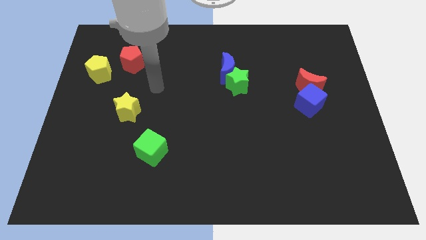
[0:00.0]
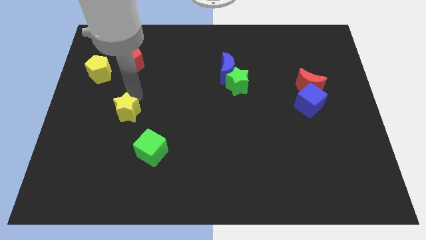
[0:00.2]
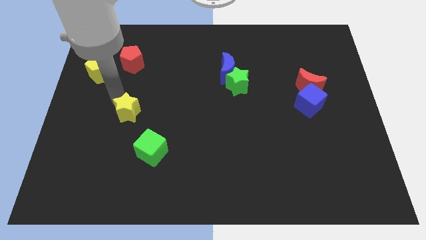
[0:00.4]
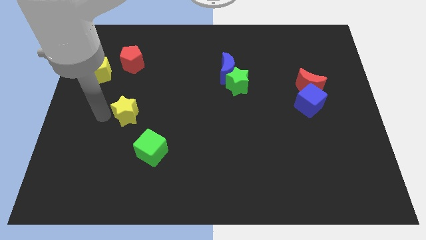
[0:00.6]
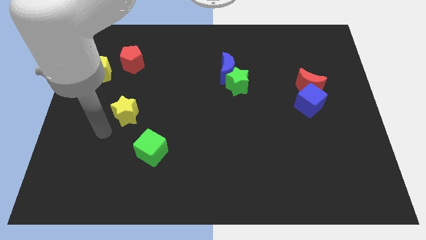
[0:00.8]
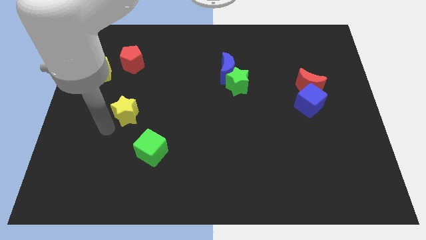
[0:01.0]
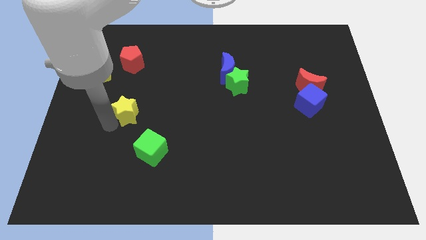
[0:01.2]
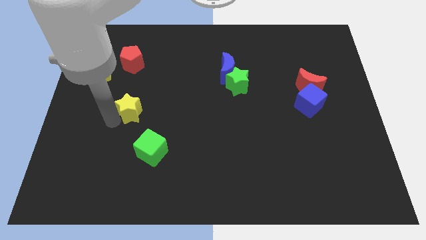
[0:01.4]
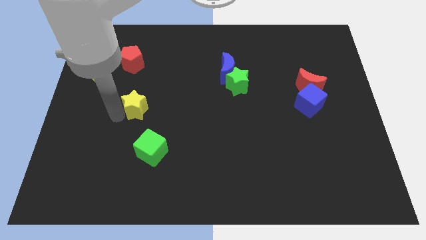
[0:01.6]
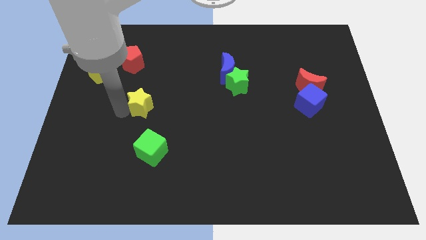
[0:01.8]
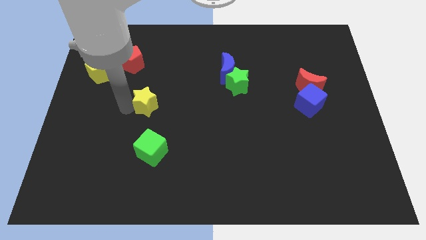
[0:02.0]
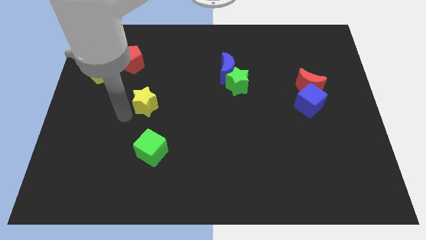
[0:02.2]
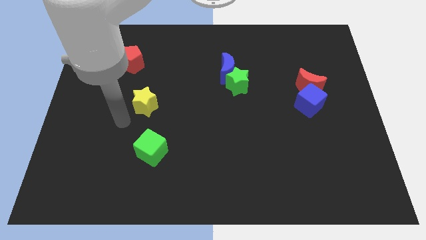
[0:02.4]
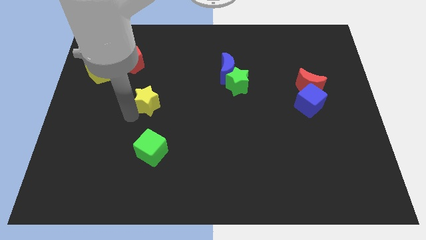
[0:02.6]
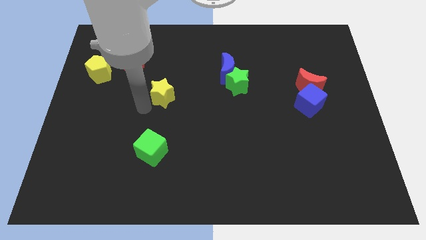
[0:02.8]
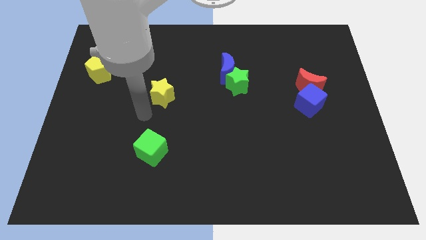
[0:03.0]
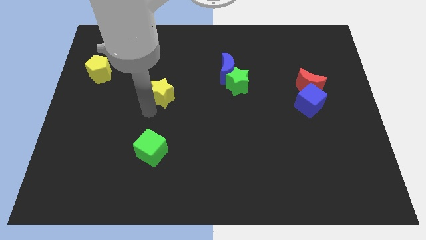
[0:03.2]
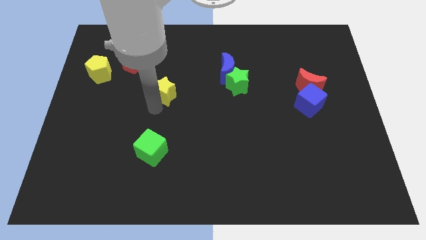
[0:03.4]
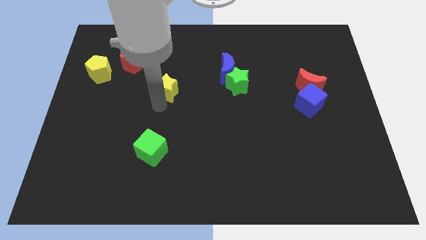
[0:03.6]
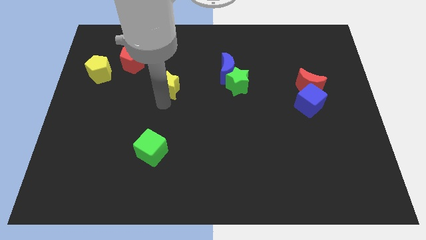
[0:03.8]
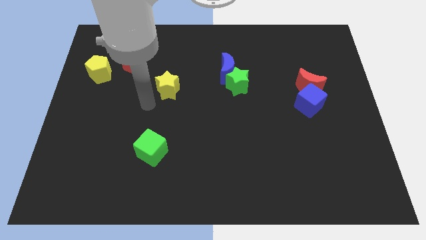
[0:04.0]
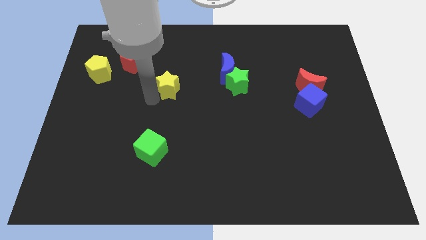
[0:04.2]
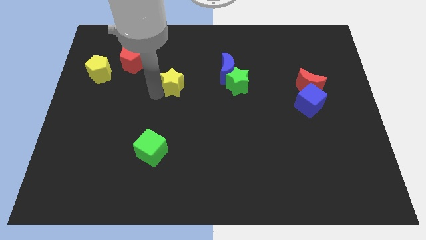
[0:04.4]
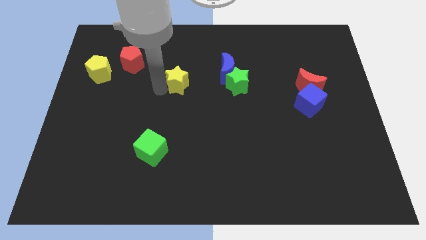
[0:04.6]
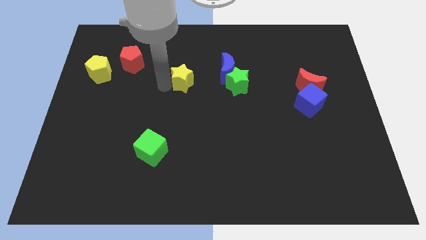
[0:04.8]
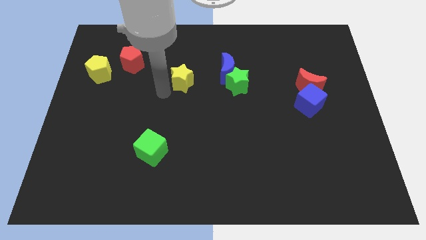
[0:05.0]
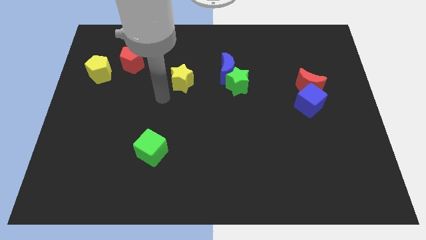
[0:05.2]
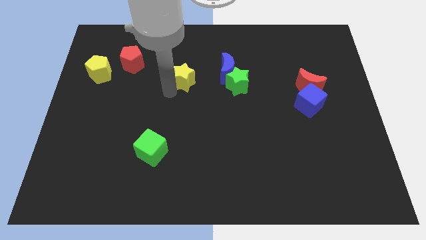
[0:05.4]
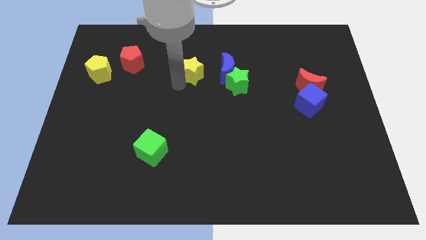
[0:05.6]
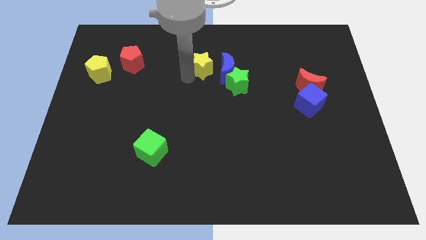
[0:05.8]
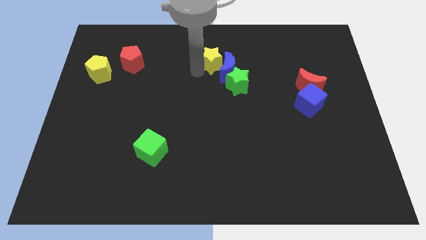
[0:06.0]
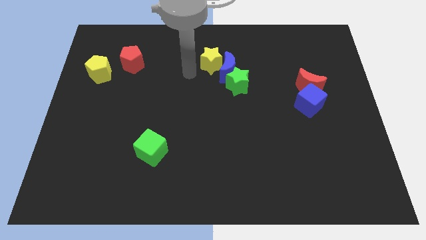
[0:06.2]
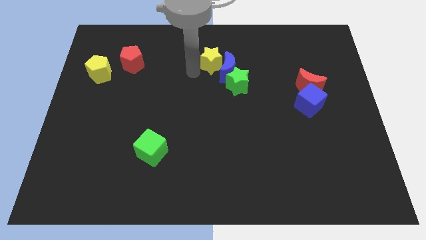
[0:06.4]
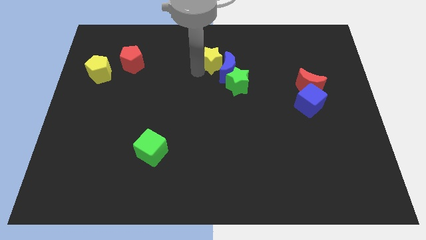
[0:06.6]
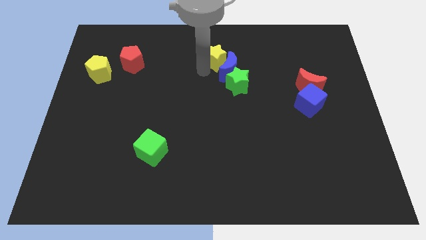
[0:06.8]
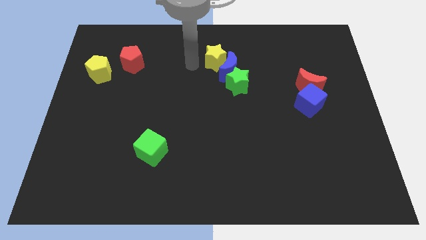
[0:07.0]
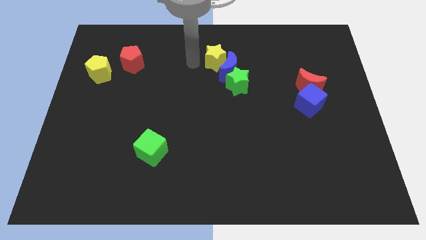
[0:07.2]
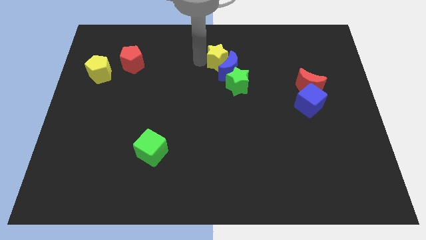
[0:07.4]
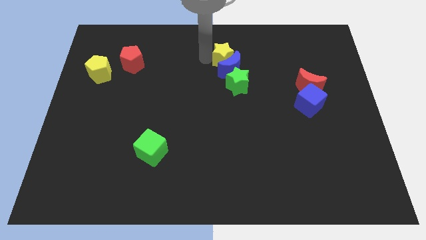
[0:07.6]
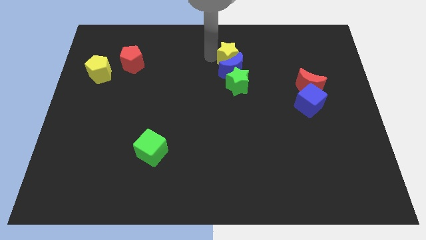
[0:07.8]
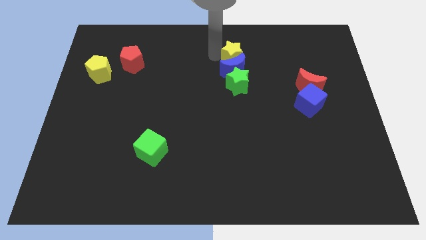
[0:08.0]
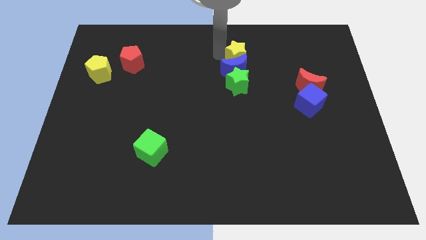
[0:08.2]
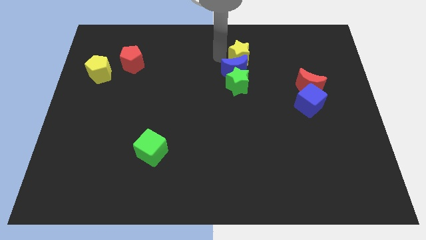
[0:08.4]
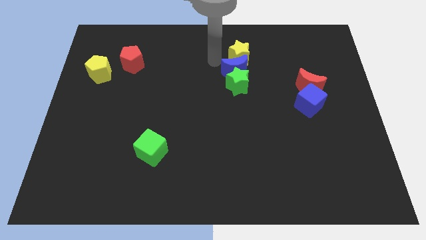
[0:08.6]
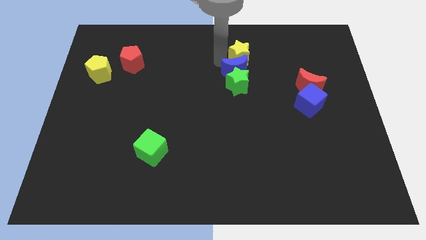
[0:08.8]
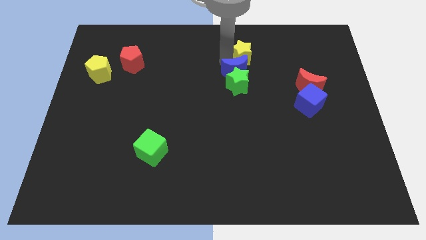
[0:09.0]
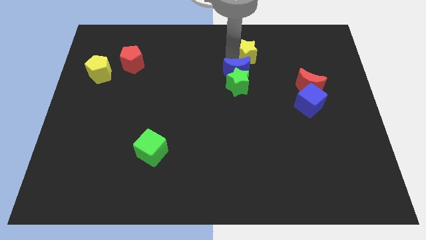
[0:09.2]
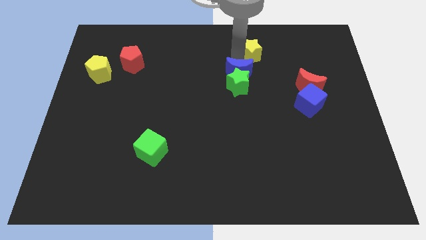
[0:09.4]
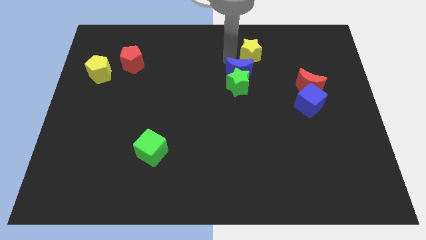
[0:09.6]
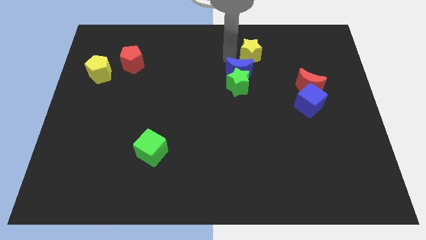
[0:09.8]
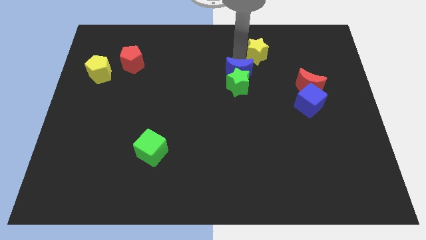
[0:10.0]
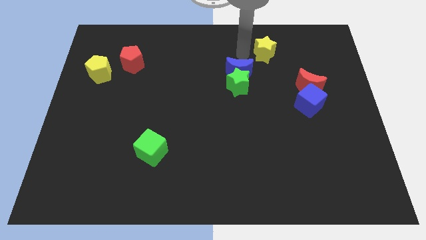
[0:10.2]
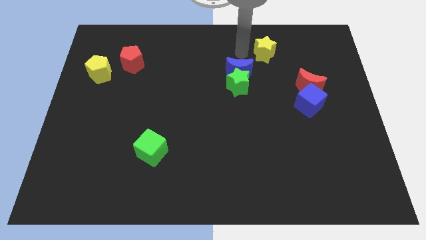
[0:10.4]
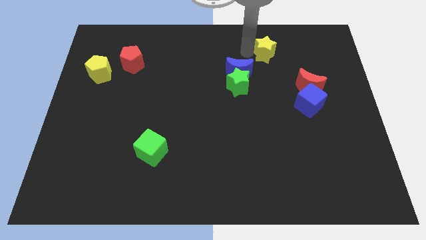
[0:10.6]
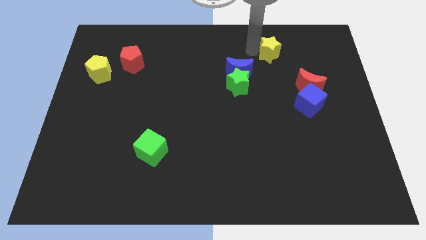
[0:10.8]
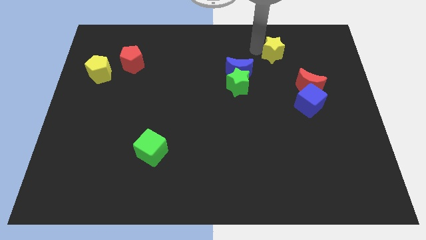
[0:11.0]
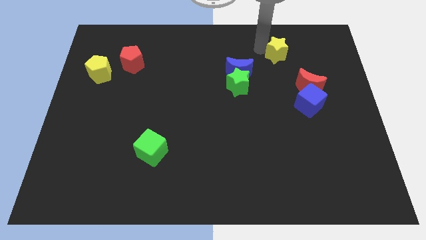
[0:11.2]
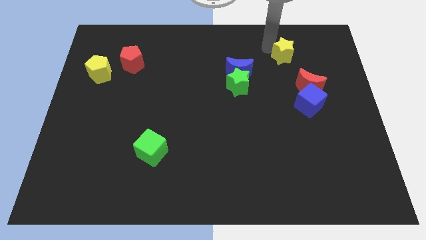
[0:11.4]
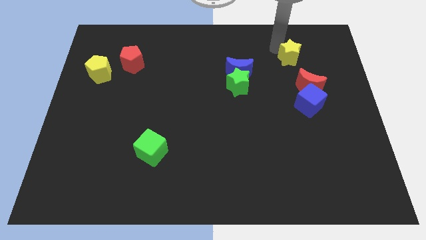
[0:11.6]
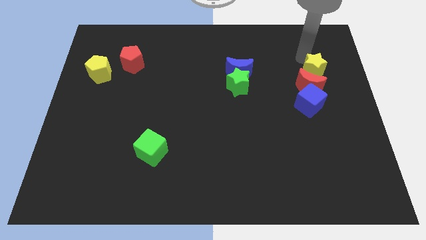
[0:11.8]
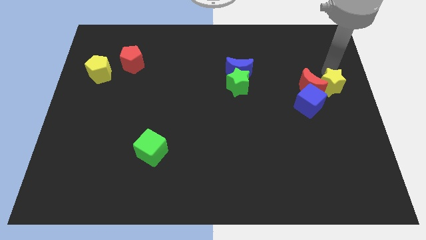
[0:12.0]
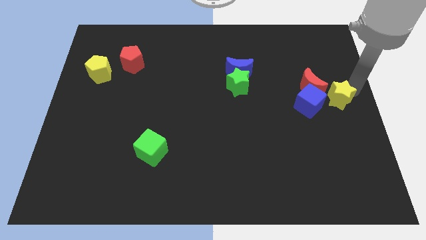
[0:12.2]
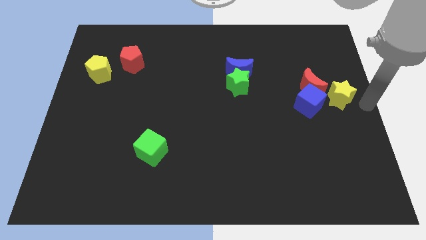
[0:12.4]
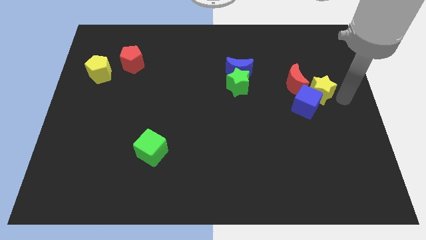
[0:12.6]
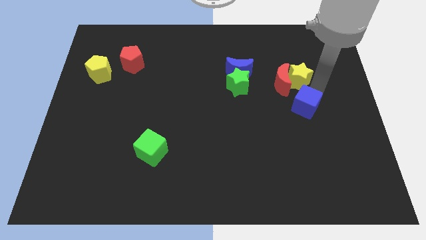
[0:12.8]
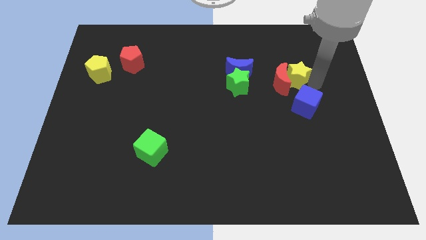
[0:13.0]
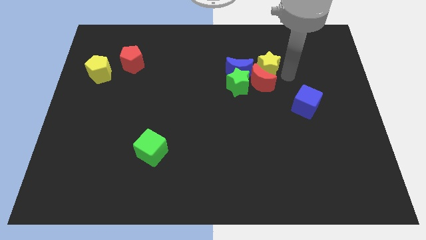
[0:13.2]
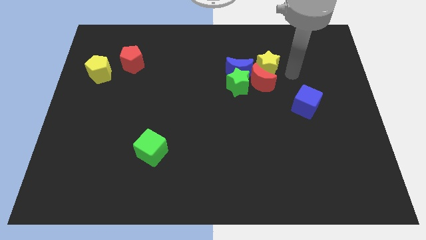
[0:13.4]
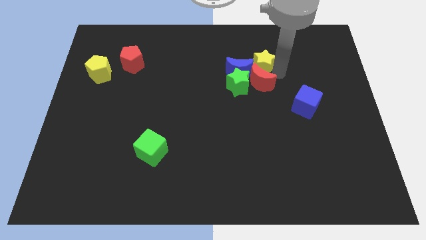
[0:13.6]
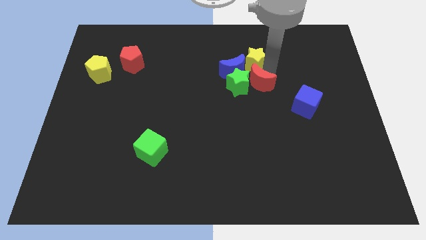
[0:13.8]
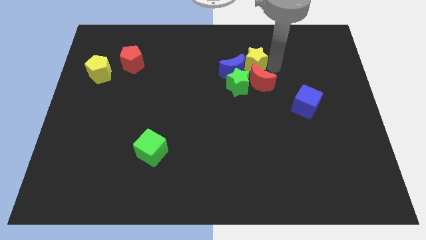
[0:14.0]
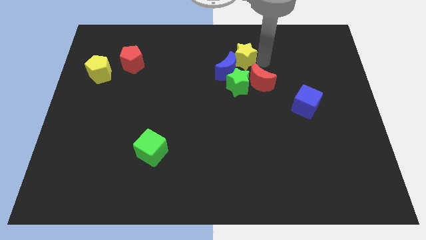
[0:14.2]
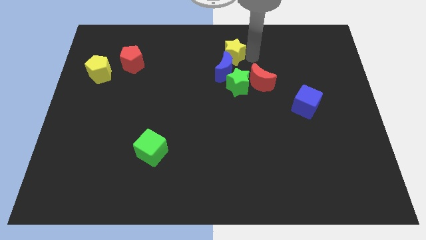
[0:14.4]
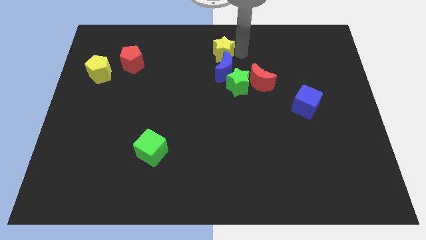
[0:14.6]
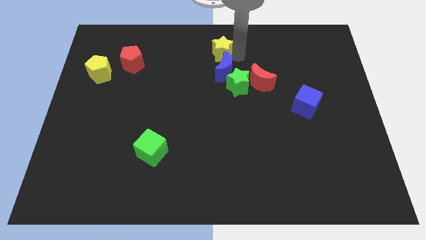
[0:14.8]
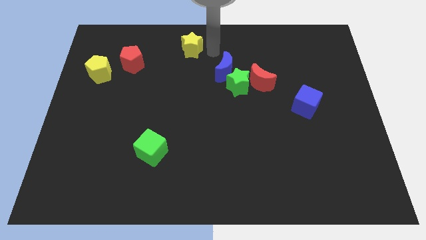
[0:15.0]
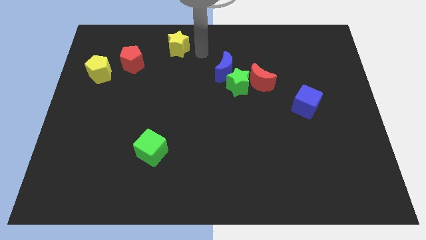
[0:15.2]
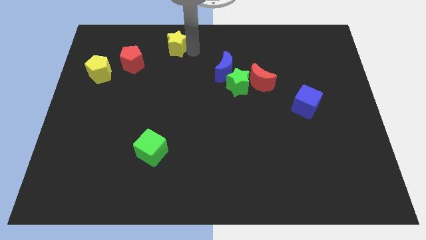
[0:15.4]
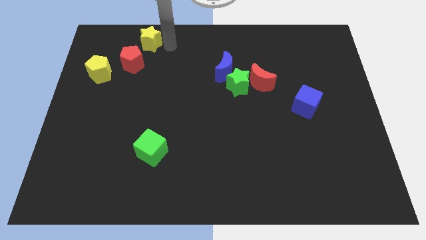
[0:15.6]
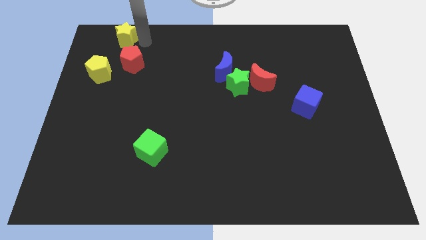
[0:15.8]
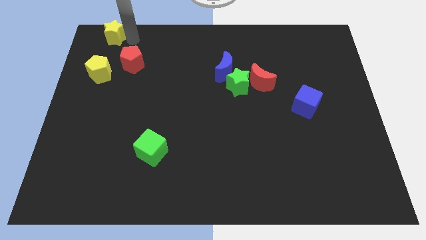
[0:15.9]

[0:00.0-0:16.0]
push the yellow star to the top left
